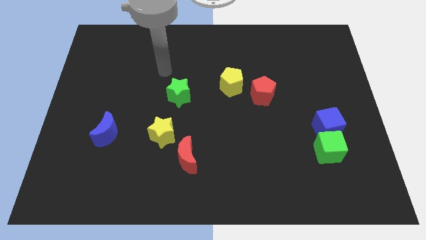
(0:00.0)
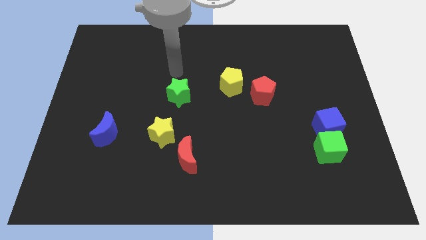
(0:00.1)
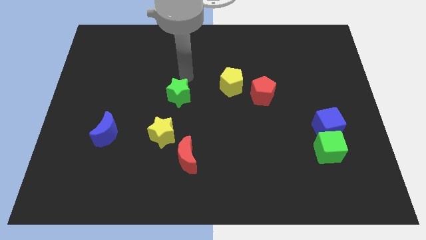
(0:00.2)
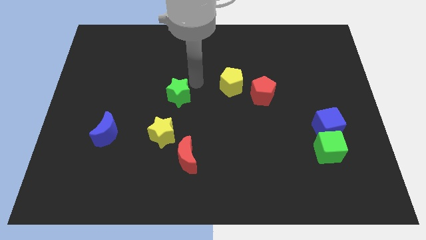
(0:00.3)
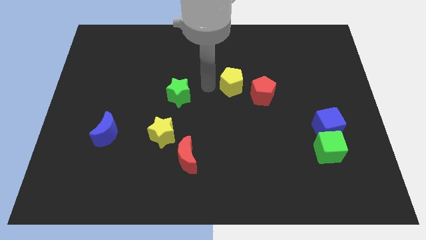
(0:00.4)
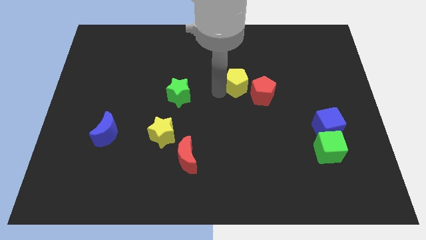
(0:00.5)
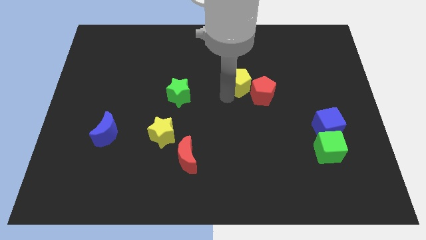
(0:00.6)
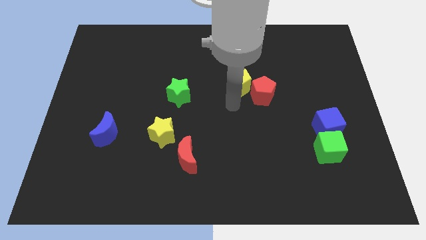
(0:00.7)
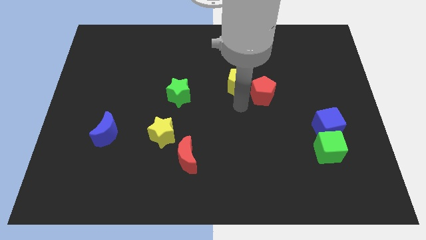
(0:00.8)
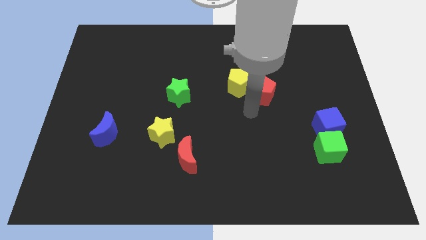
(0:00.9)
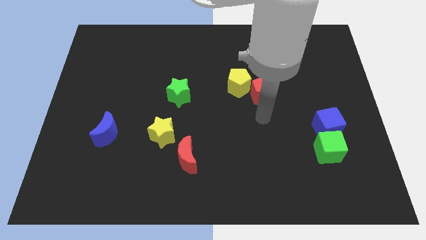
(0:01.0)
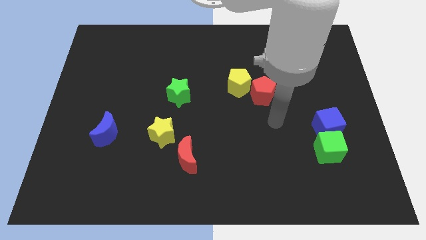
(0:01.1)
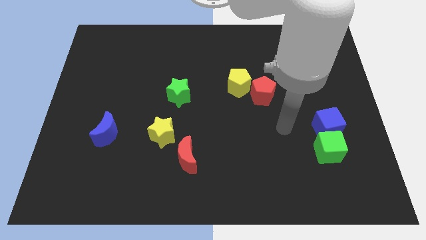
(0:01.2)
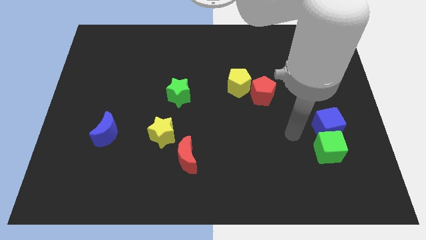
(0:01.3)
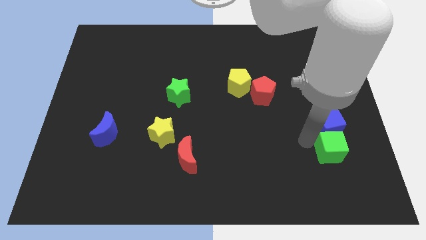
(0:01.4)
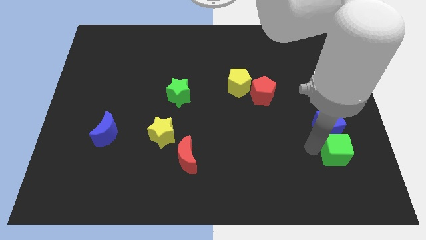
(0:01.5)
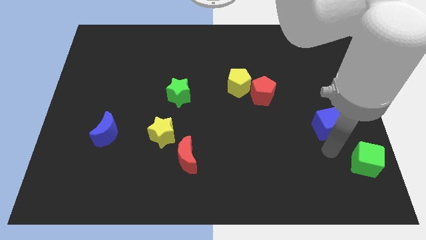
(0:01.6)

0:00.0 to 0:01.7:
move the blue cube away from the green cube

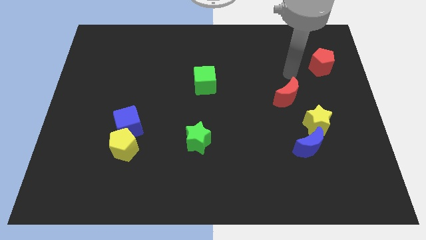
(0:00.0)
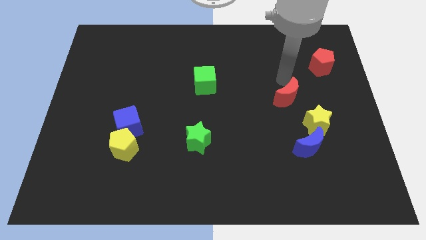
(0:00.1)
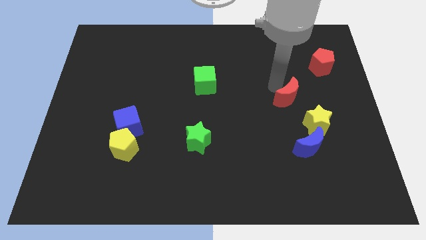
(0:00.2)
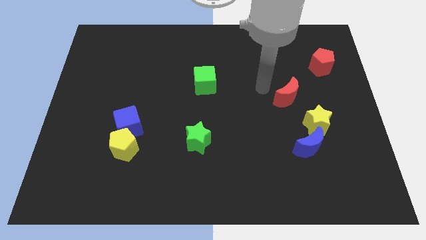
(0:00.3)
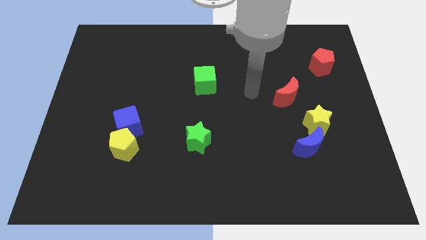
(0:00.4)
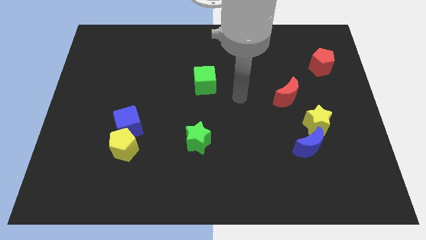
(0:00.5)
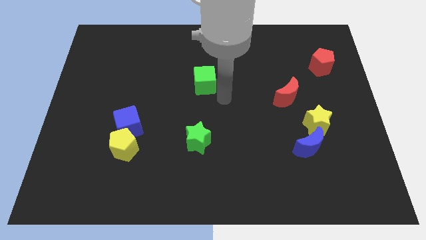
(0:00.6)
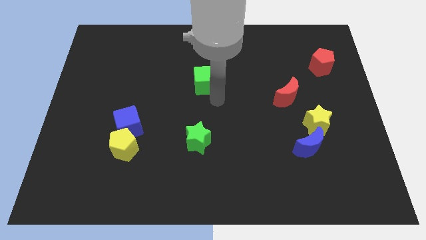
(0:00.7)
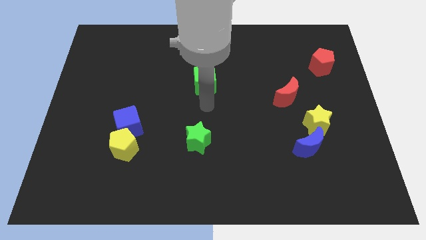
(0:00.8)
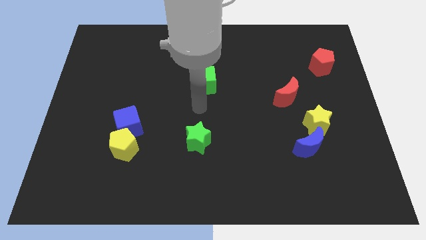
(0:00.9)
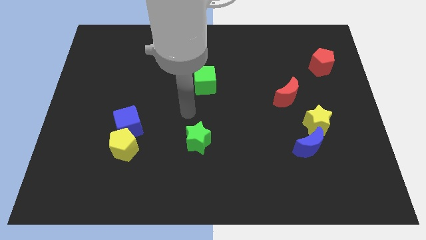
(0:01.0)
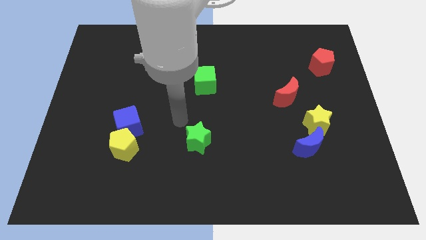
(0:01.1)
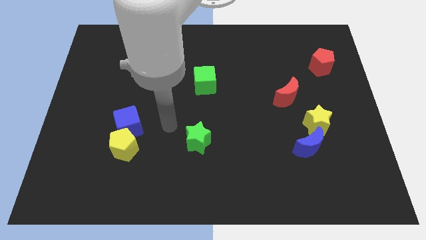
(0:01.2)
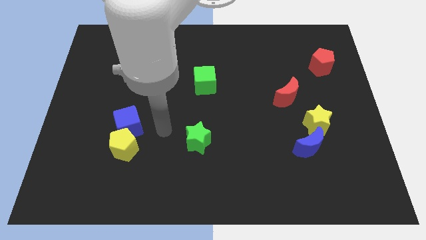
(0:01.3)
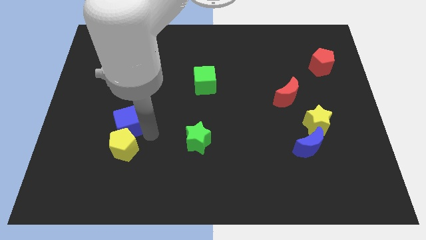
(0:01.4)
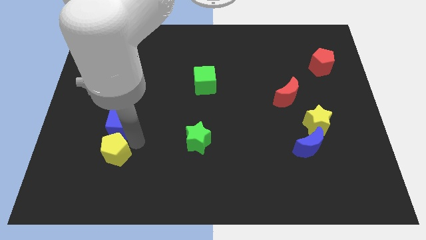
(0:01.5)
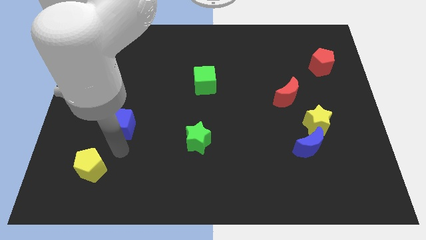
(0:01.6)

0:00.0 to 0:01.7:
pull the blue cube apart from the yellow pentagon

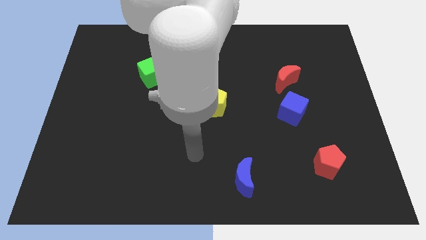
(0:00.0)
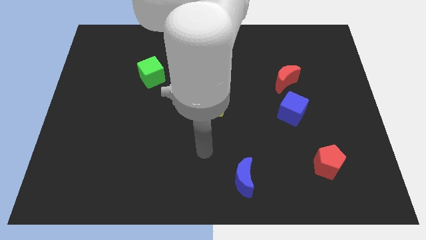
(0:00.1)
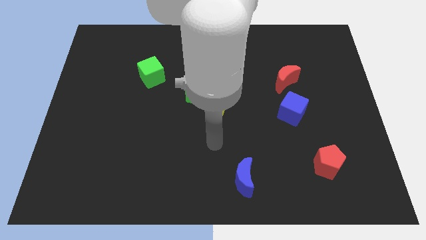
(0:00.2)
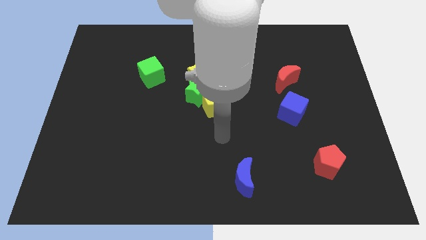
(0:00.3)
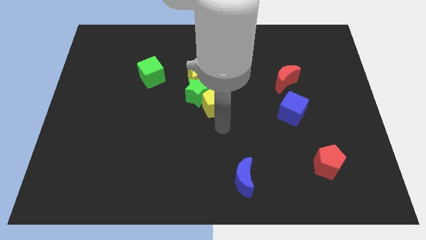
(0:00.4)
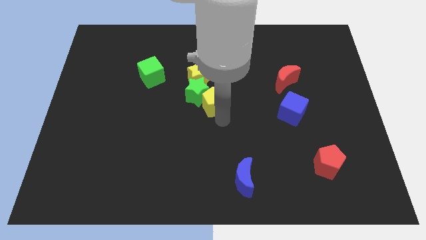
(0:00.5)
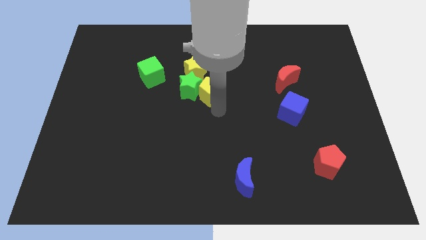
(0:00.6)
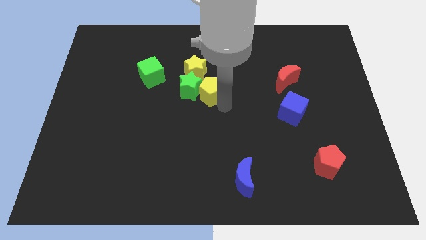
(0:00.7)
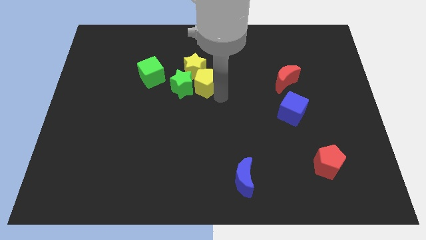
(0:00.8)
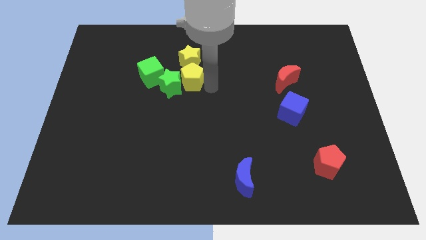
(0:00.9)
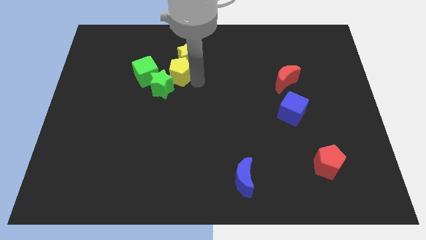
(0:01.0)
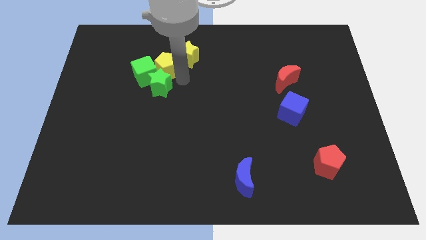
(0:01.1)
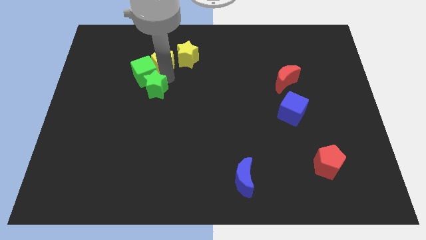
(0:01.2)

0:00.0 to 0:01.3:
pull the green star apart from the yellow star and yellow pentagon

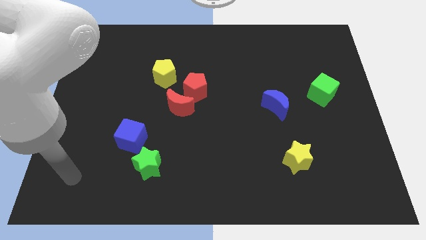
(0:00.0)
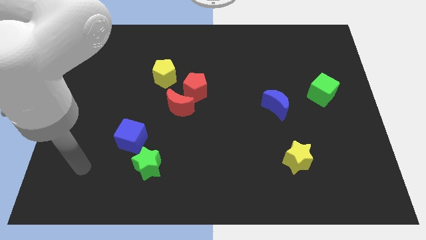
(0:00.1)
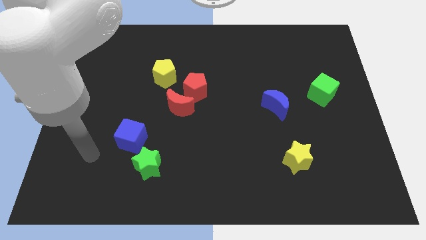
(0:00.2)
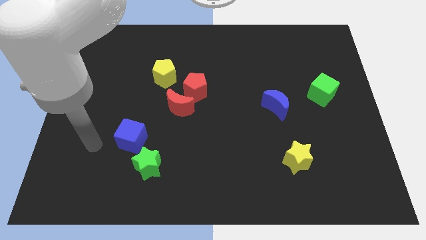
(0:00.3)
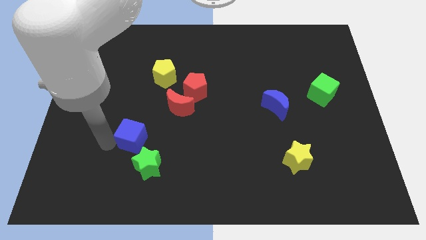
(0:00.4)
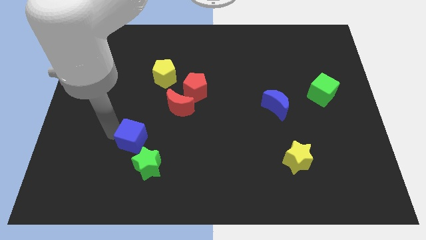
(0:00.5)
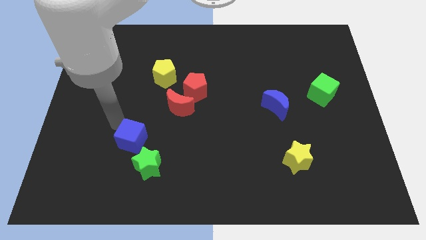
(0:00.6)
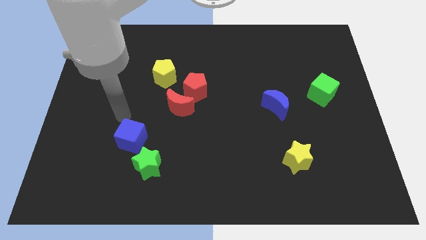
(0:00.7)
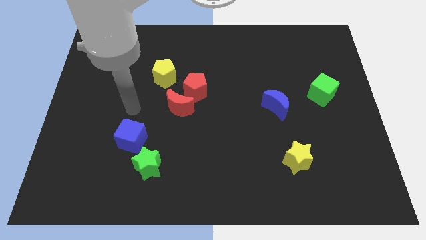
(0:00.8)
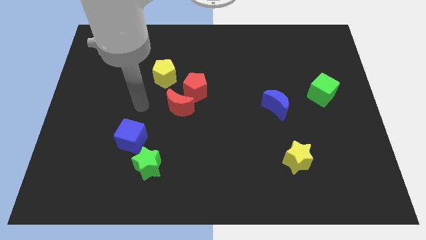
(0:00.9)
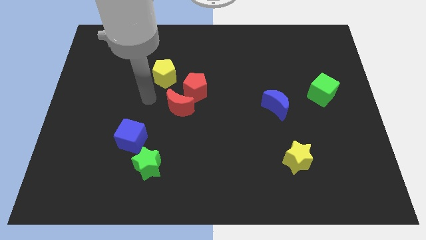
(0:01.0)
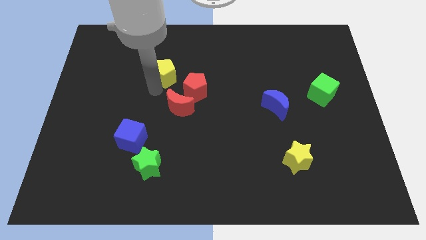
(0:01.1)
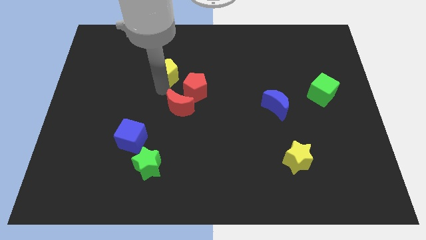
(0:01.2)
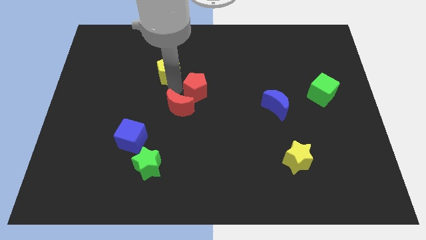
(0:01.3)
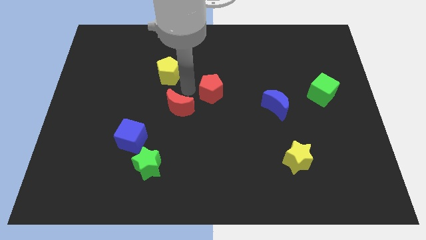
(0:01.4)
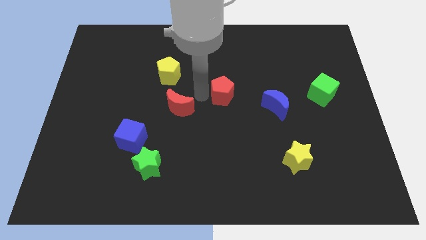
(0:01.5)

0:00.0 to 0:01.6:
move the red moon away from the red pentagon

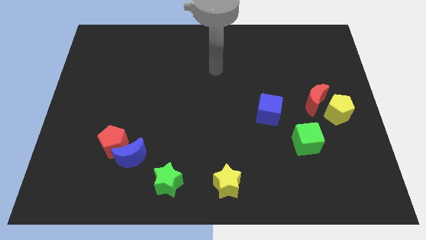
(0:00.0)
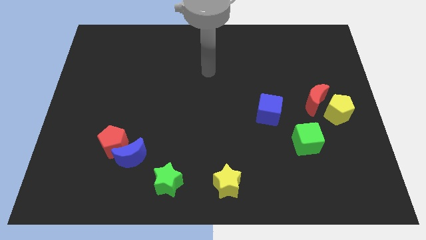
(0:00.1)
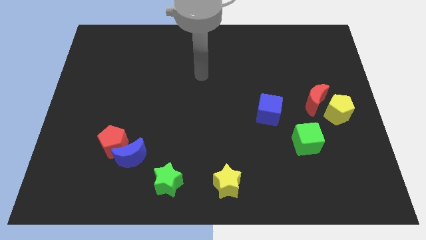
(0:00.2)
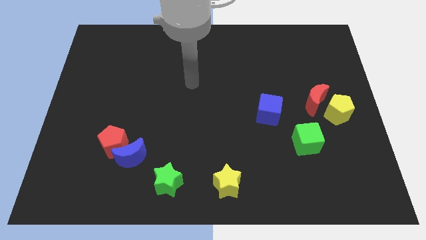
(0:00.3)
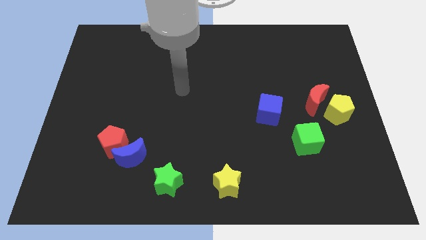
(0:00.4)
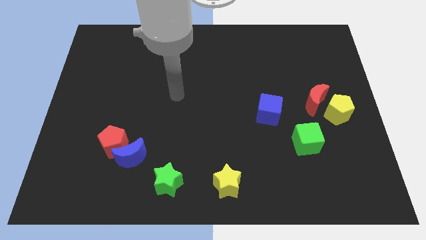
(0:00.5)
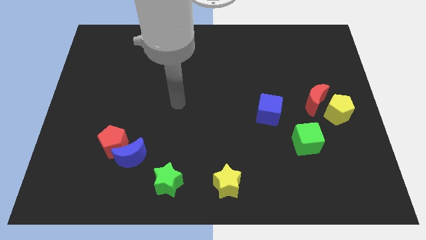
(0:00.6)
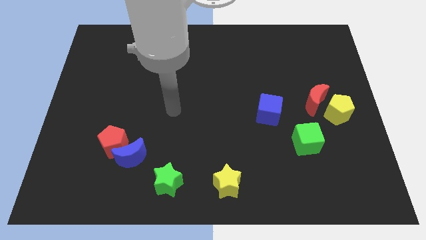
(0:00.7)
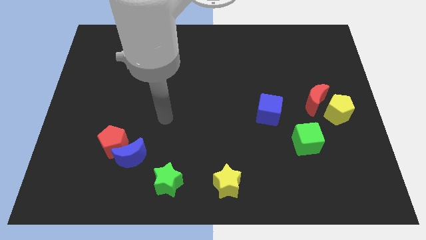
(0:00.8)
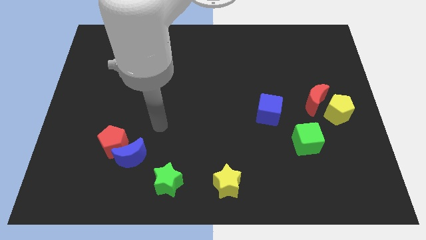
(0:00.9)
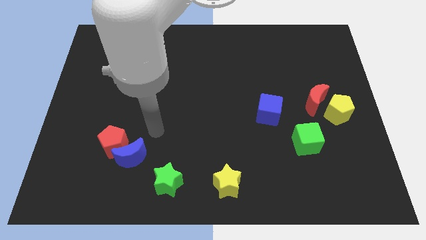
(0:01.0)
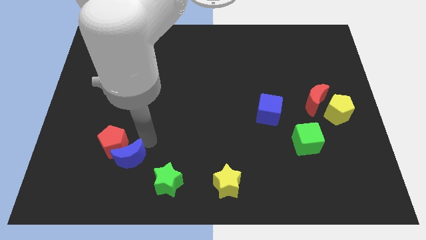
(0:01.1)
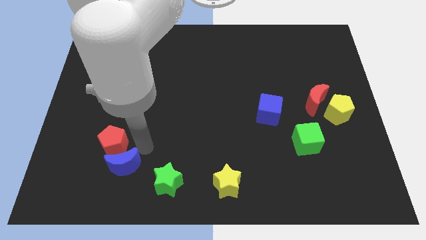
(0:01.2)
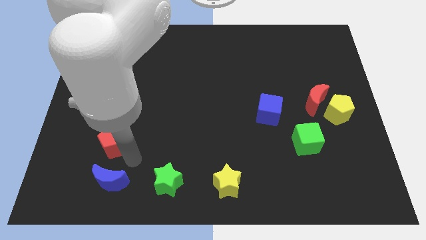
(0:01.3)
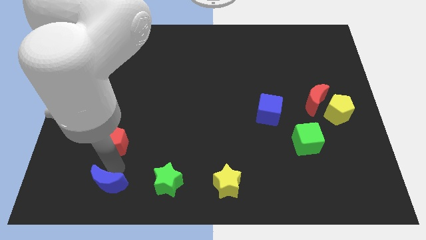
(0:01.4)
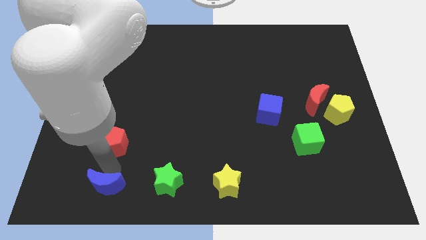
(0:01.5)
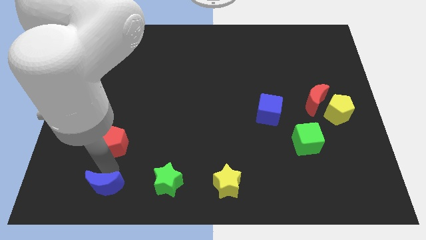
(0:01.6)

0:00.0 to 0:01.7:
move the red pentagon away from the blue moon

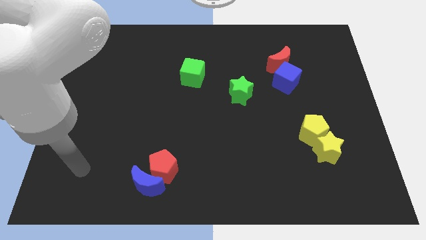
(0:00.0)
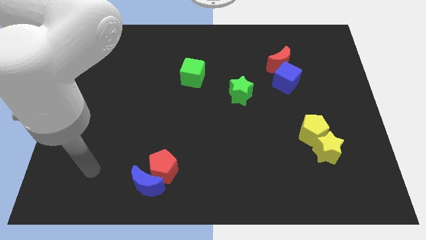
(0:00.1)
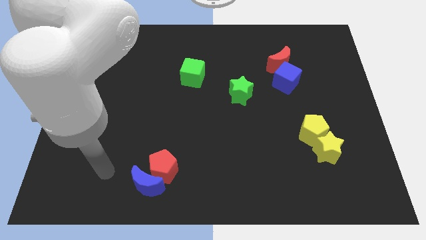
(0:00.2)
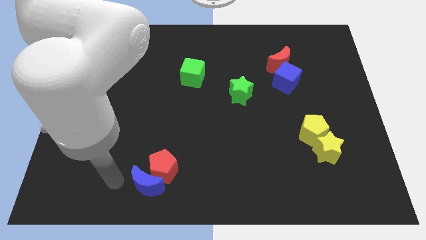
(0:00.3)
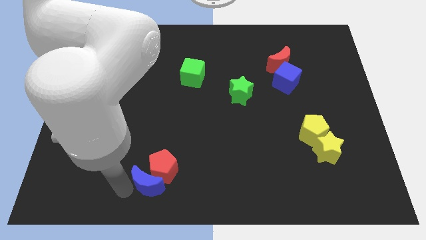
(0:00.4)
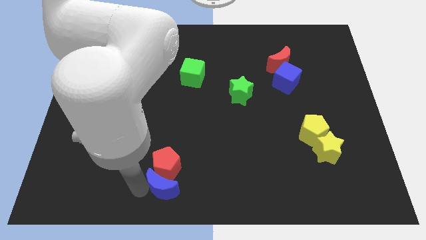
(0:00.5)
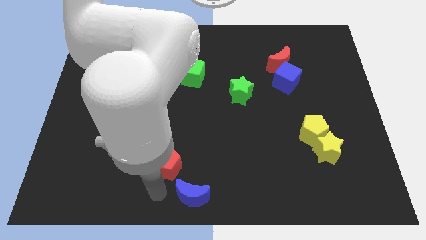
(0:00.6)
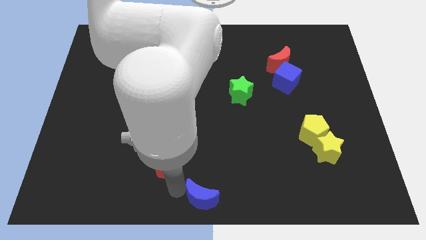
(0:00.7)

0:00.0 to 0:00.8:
separate the red pentagon from the blue moon

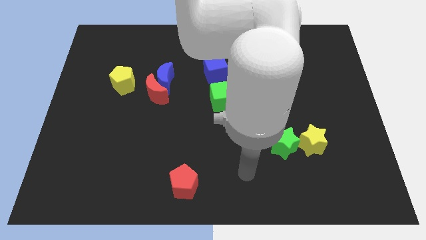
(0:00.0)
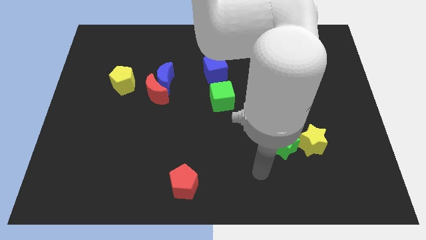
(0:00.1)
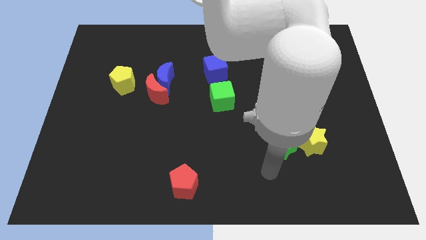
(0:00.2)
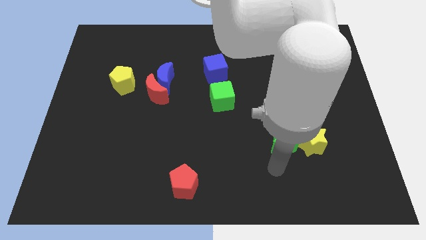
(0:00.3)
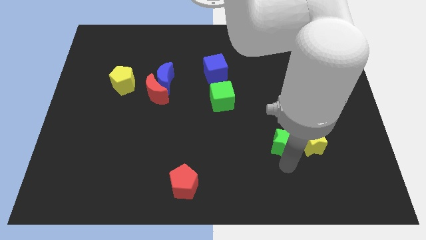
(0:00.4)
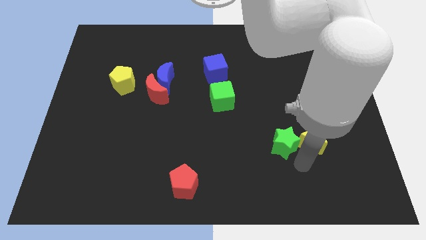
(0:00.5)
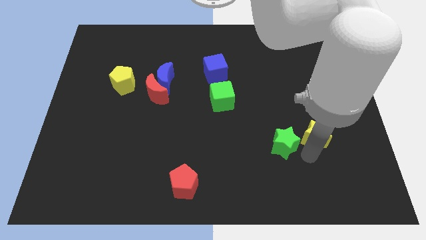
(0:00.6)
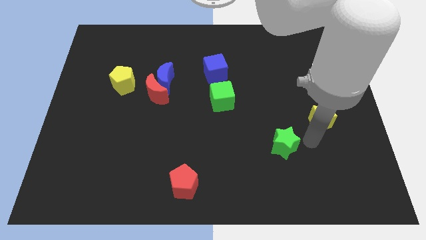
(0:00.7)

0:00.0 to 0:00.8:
move the green star away from the yellow star
